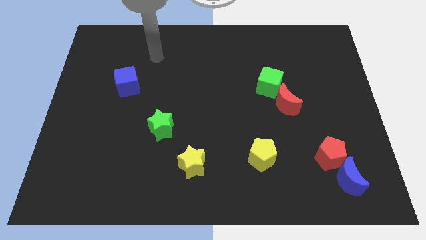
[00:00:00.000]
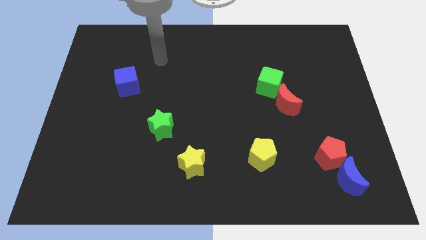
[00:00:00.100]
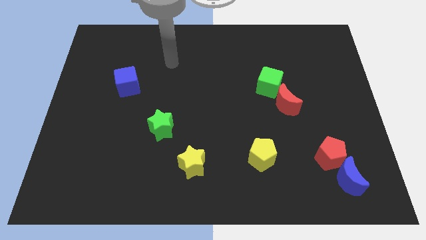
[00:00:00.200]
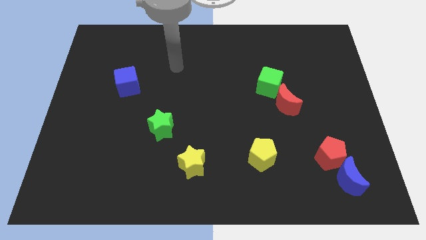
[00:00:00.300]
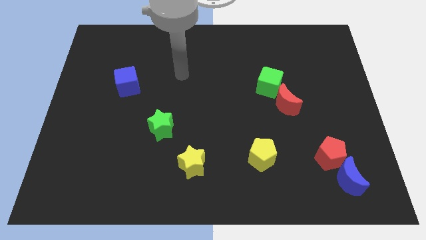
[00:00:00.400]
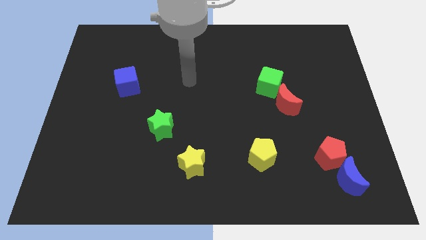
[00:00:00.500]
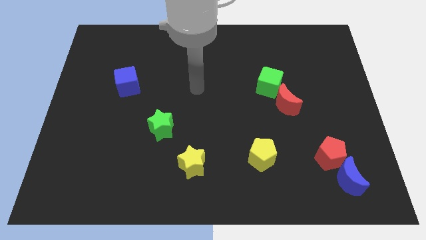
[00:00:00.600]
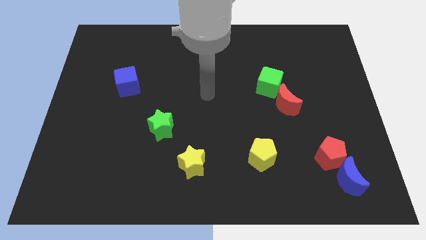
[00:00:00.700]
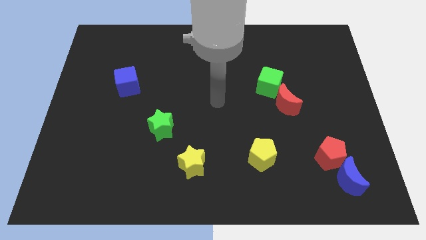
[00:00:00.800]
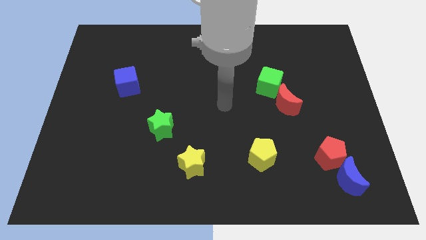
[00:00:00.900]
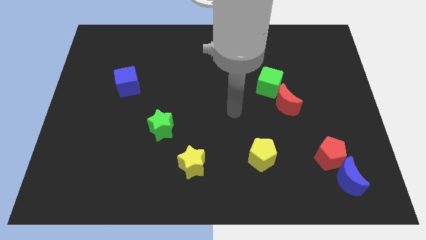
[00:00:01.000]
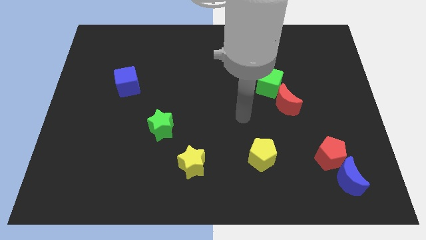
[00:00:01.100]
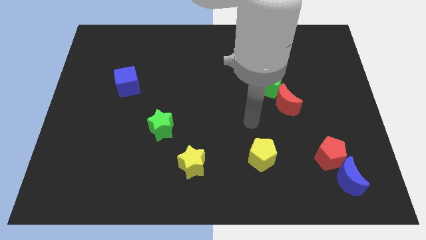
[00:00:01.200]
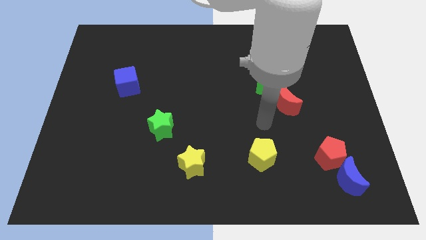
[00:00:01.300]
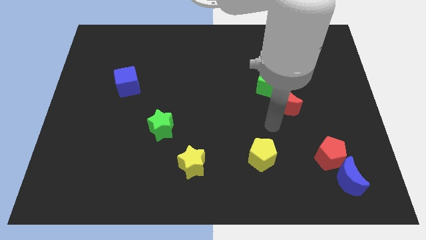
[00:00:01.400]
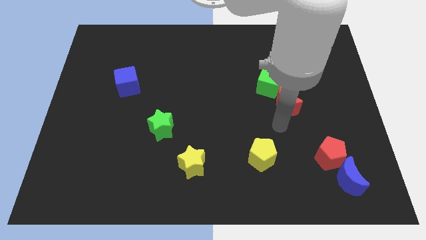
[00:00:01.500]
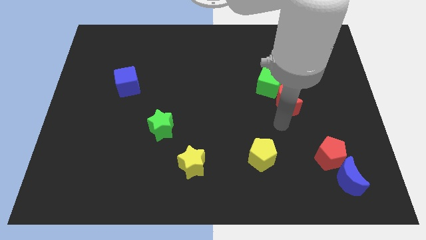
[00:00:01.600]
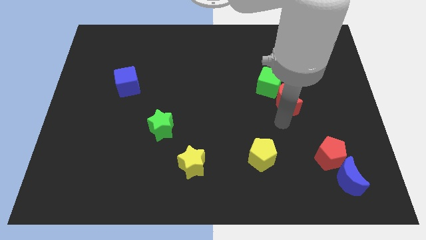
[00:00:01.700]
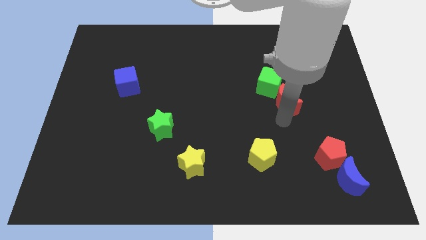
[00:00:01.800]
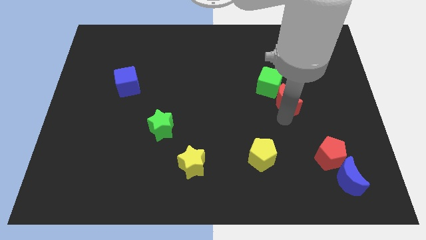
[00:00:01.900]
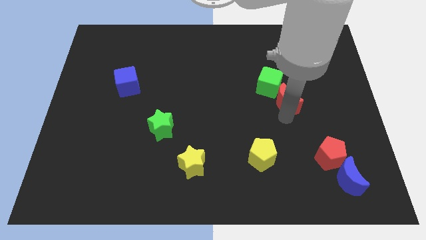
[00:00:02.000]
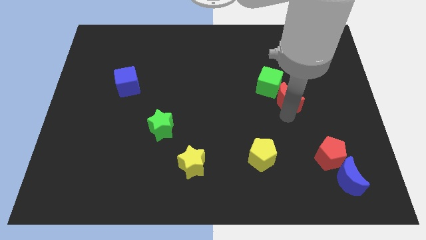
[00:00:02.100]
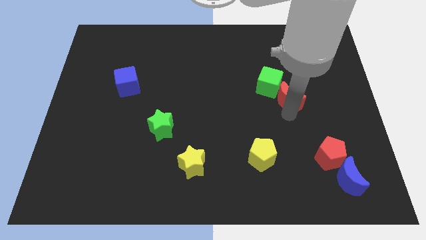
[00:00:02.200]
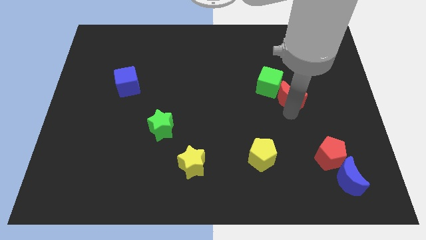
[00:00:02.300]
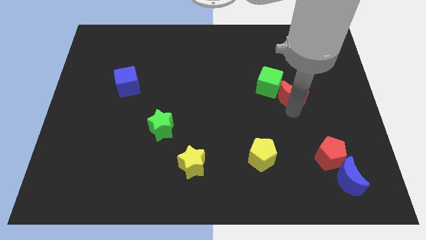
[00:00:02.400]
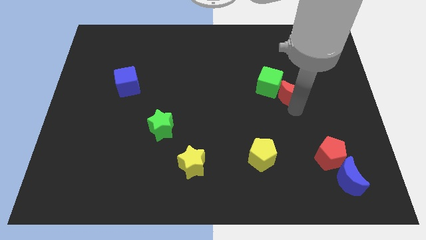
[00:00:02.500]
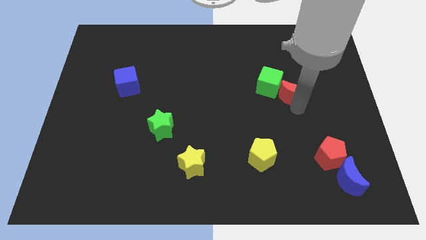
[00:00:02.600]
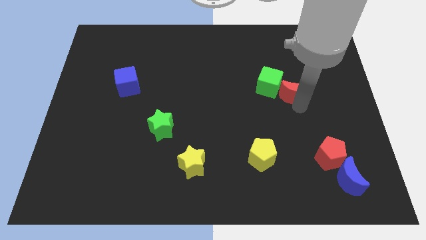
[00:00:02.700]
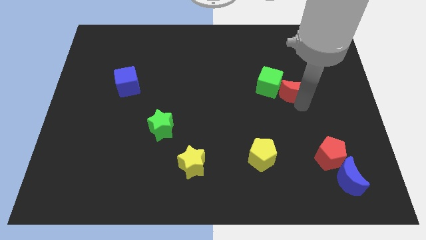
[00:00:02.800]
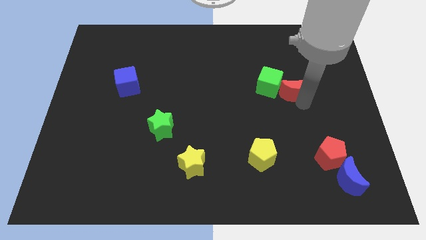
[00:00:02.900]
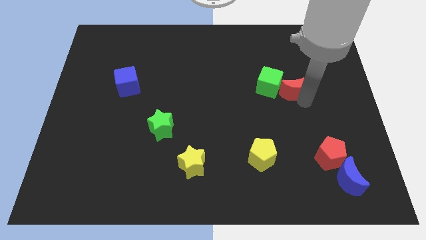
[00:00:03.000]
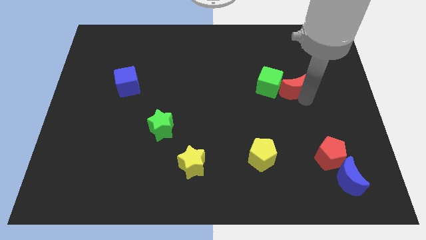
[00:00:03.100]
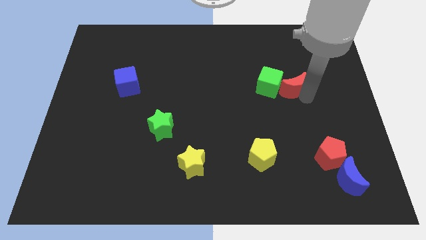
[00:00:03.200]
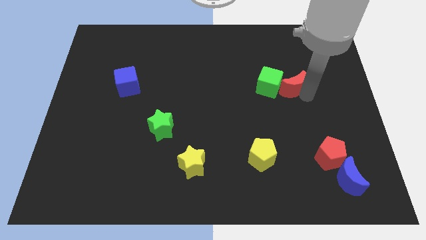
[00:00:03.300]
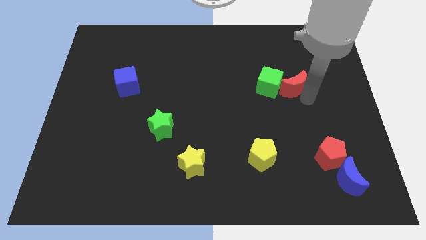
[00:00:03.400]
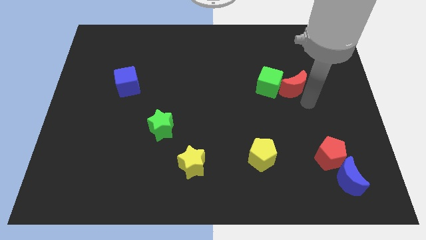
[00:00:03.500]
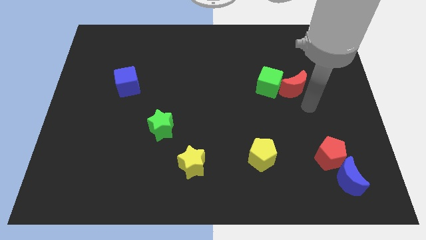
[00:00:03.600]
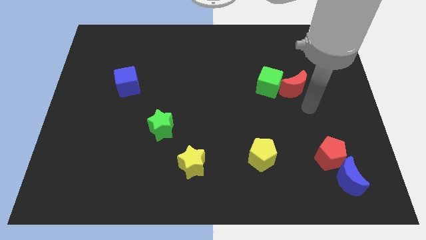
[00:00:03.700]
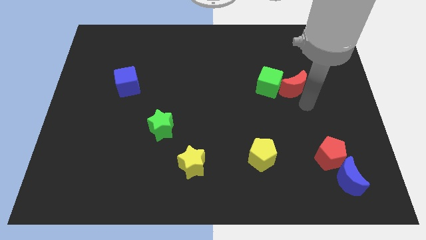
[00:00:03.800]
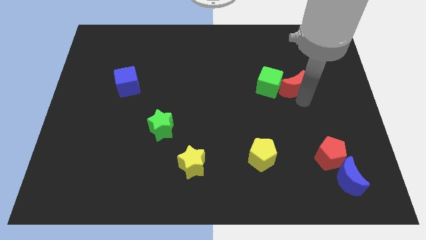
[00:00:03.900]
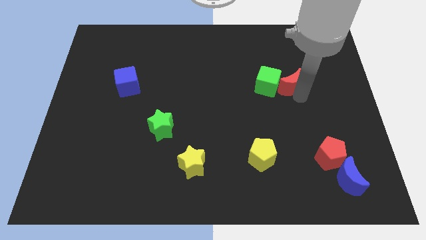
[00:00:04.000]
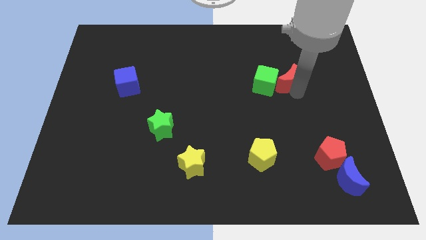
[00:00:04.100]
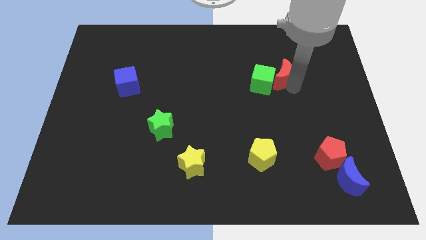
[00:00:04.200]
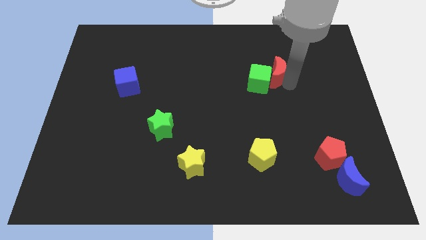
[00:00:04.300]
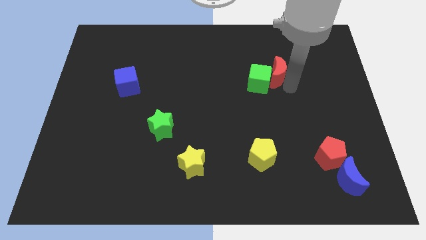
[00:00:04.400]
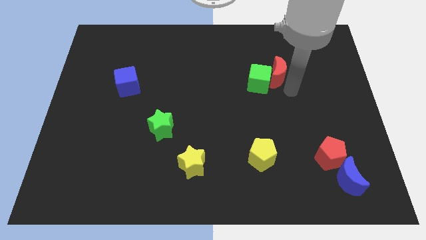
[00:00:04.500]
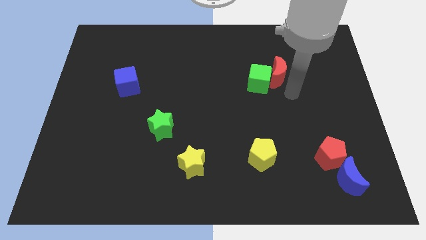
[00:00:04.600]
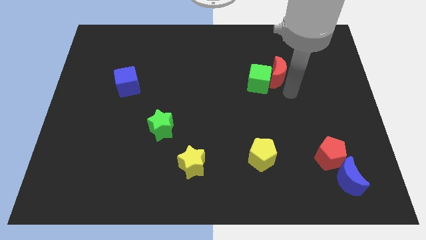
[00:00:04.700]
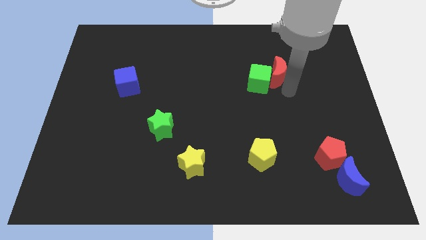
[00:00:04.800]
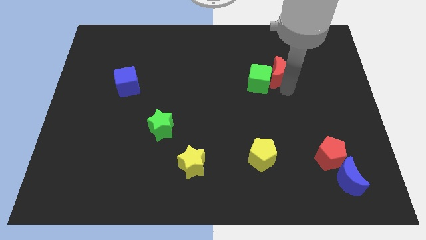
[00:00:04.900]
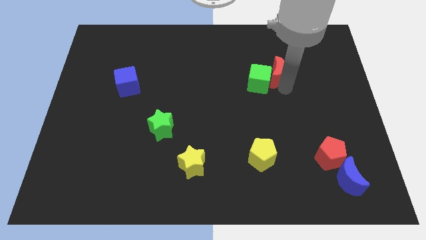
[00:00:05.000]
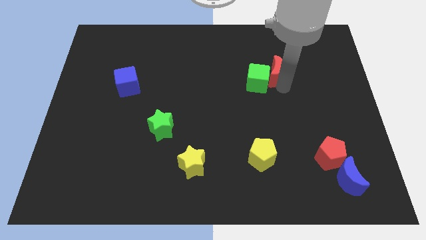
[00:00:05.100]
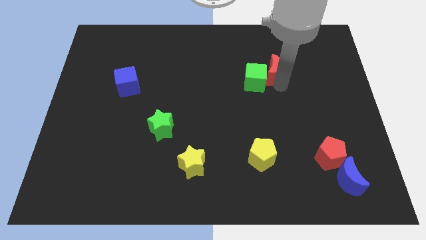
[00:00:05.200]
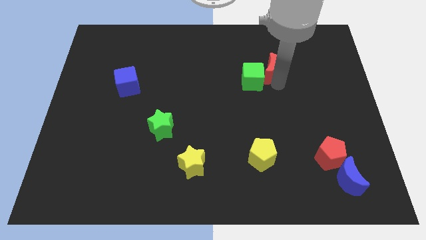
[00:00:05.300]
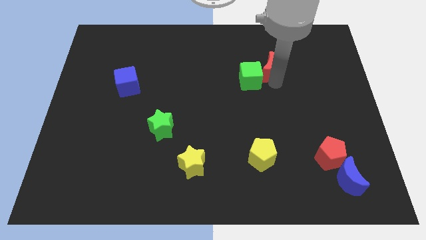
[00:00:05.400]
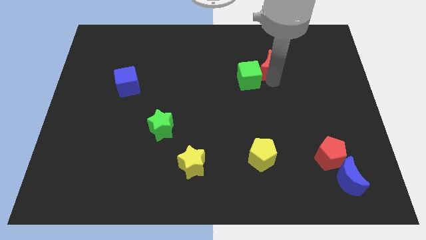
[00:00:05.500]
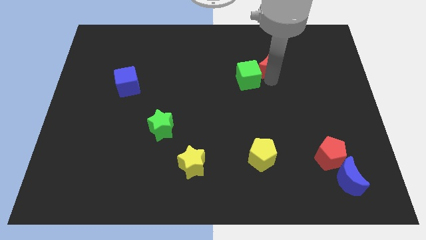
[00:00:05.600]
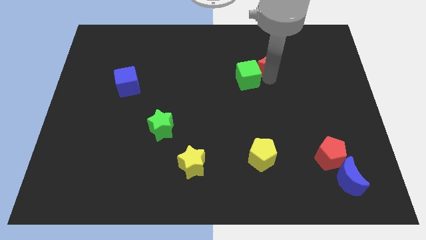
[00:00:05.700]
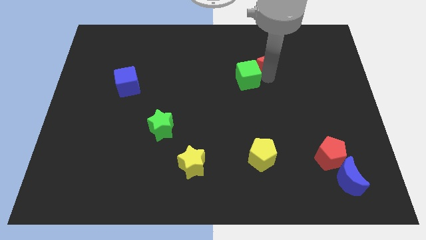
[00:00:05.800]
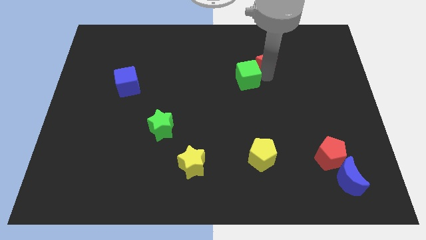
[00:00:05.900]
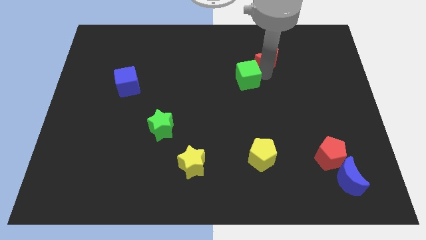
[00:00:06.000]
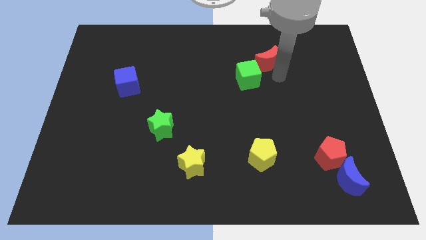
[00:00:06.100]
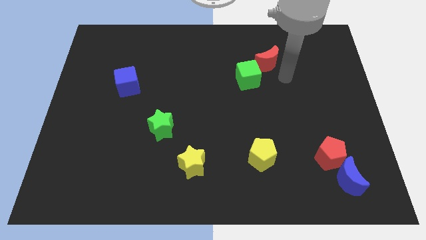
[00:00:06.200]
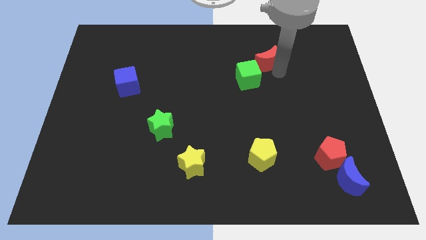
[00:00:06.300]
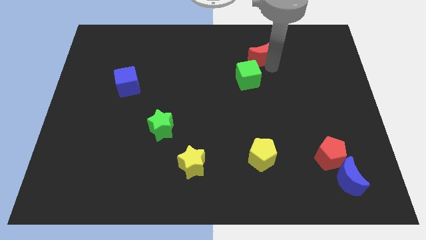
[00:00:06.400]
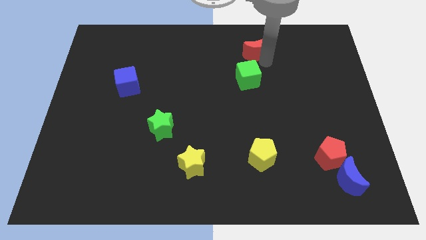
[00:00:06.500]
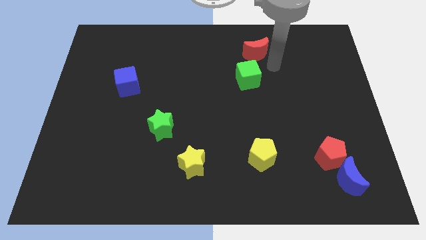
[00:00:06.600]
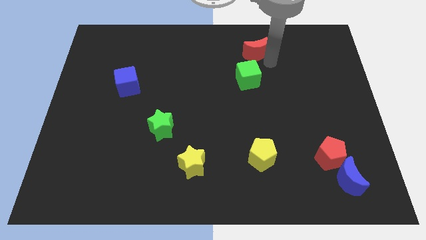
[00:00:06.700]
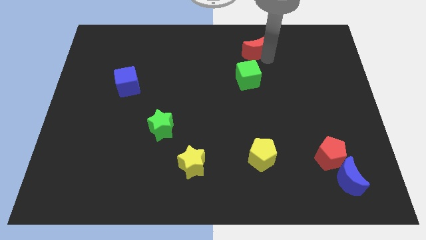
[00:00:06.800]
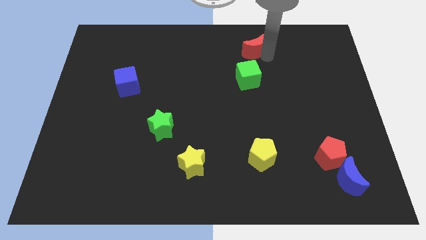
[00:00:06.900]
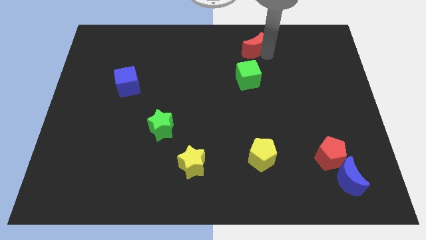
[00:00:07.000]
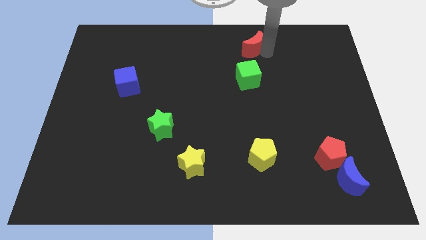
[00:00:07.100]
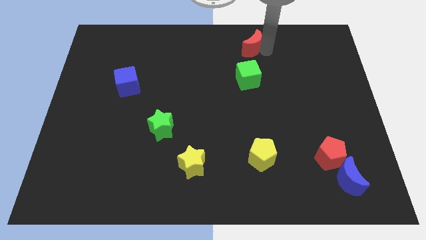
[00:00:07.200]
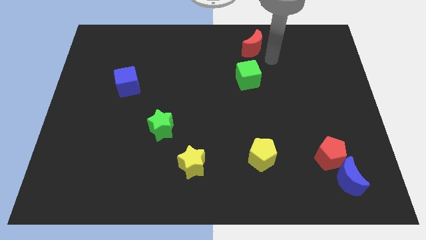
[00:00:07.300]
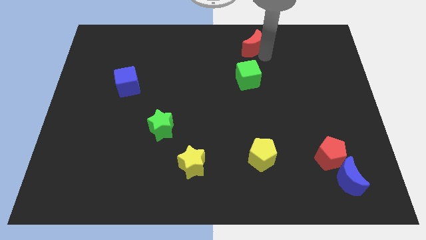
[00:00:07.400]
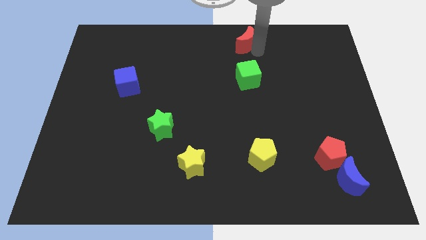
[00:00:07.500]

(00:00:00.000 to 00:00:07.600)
slide the red moon to the towards your base
